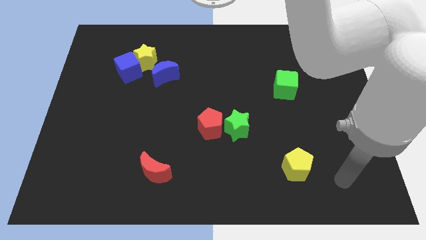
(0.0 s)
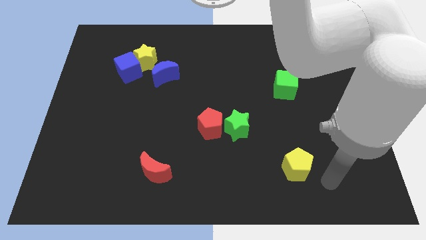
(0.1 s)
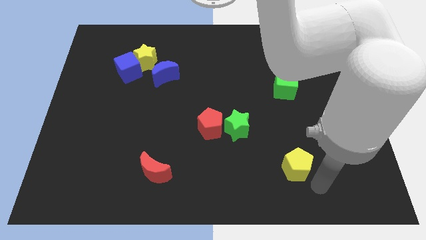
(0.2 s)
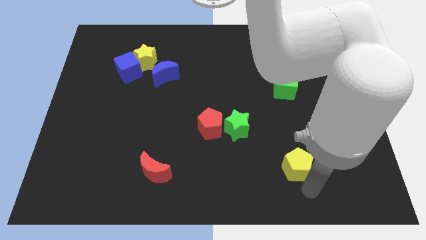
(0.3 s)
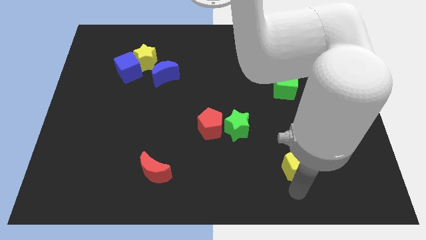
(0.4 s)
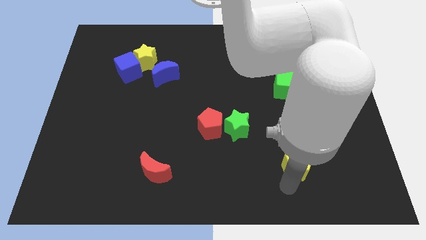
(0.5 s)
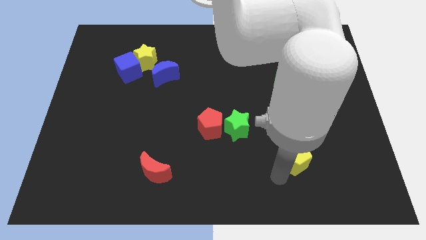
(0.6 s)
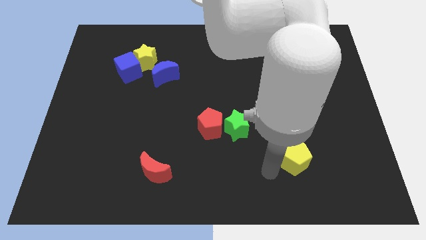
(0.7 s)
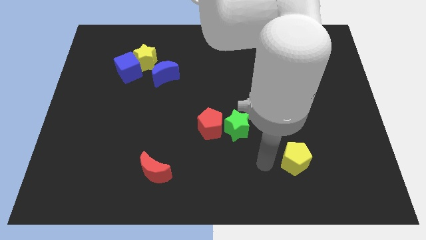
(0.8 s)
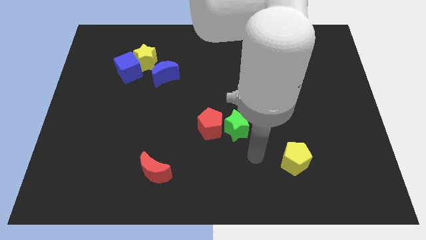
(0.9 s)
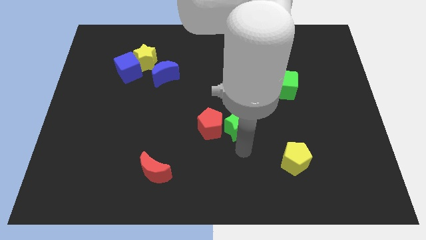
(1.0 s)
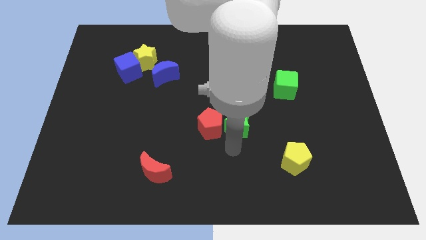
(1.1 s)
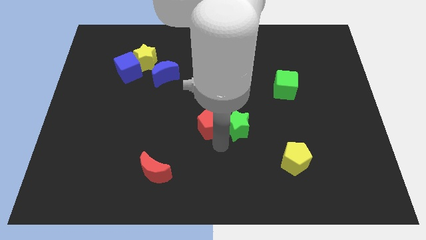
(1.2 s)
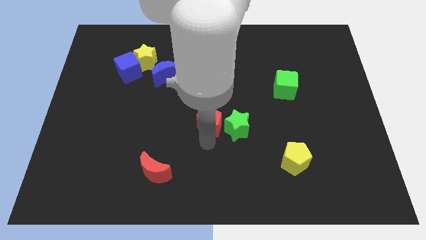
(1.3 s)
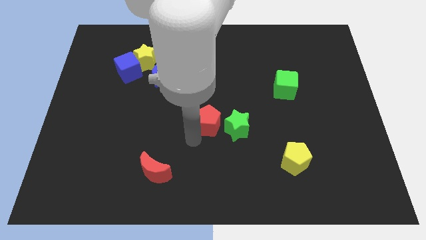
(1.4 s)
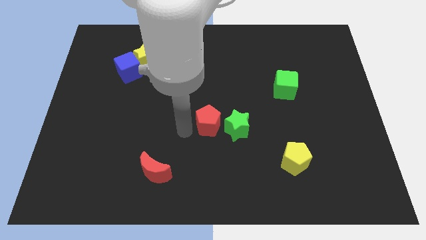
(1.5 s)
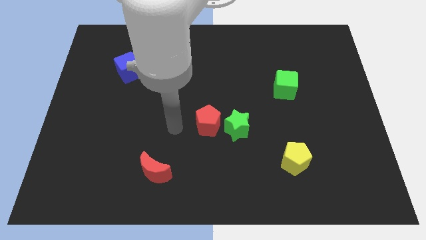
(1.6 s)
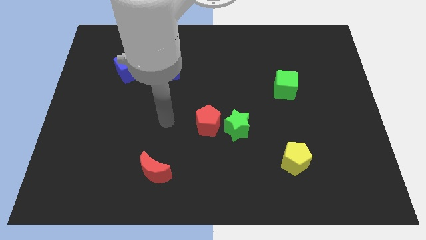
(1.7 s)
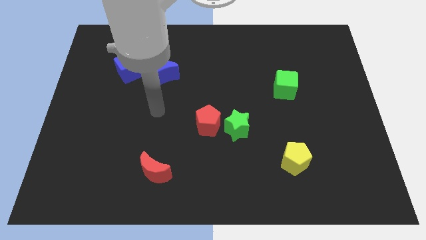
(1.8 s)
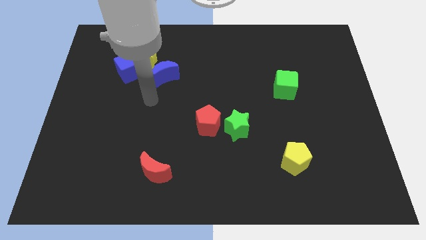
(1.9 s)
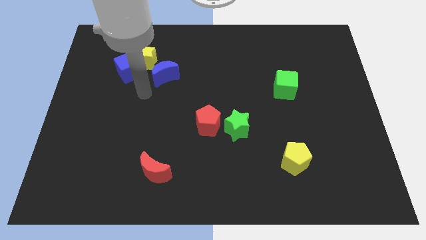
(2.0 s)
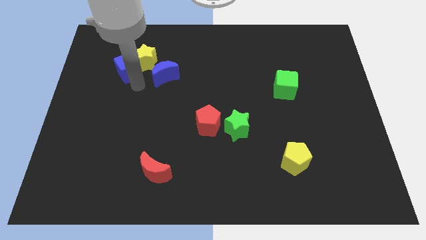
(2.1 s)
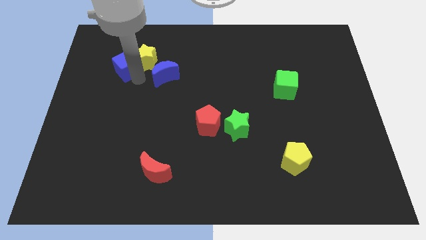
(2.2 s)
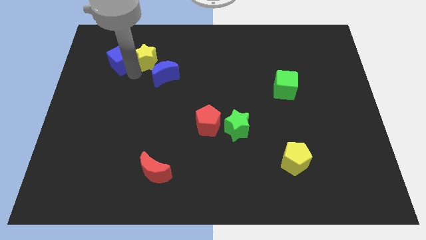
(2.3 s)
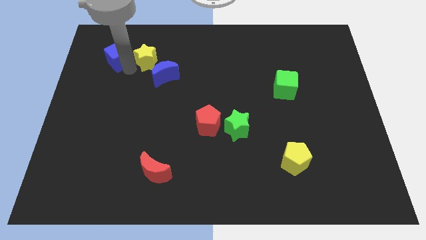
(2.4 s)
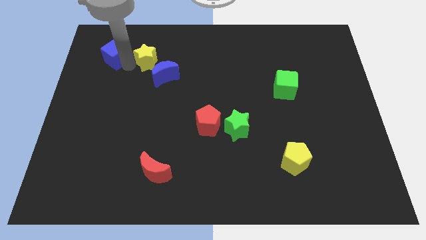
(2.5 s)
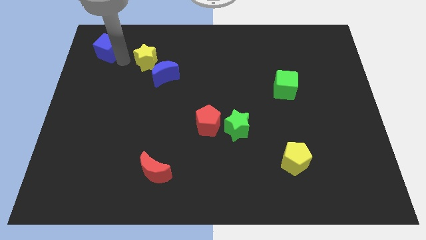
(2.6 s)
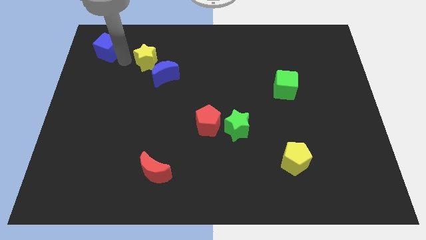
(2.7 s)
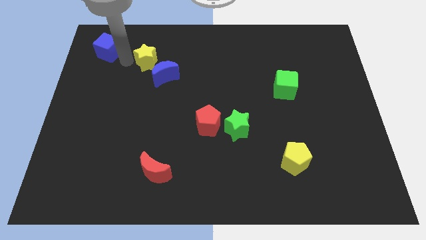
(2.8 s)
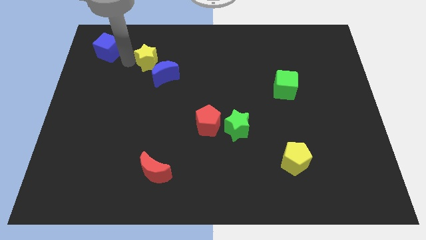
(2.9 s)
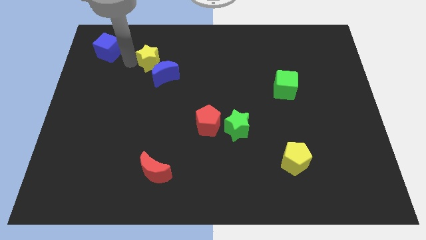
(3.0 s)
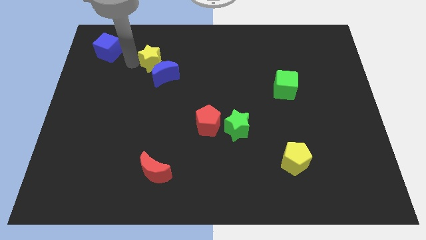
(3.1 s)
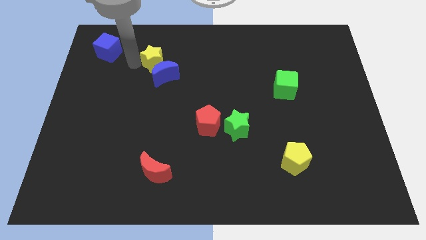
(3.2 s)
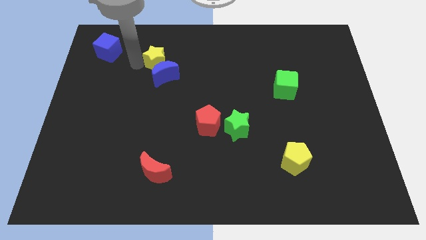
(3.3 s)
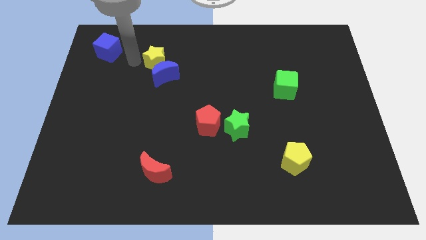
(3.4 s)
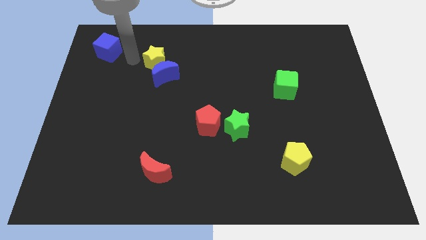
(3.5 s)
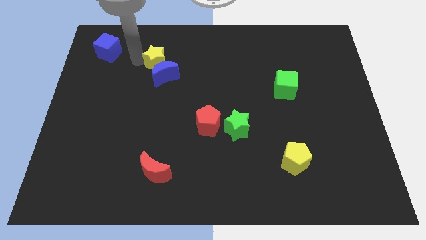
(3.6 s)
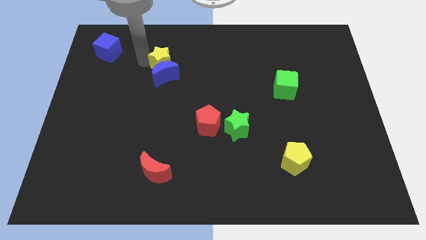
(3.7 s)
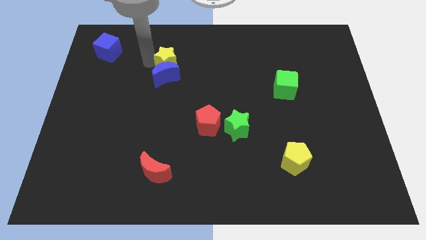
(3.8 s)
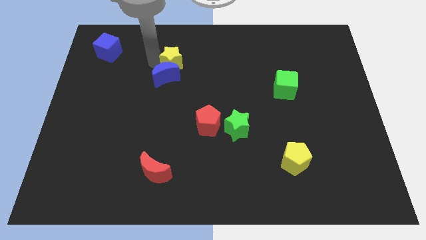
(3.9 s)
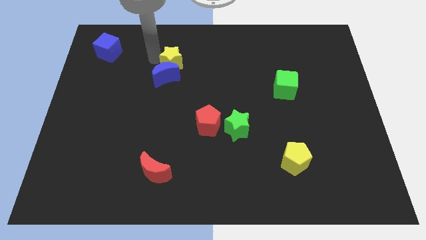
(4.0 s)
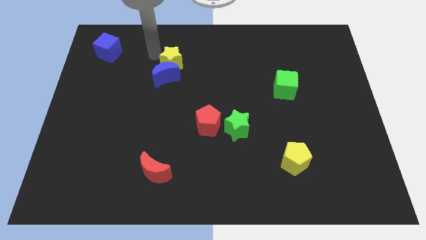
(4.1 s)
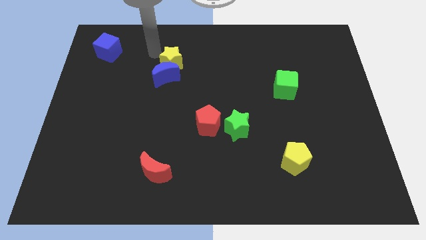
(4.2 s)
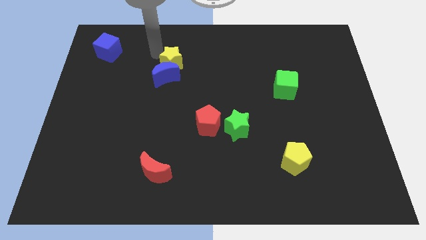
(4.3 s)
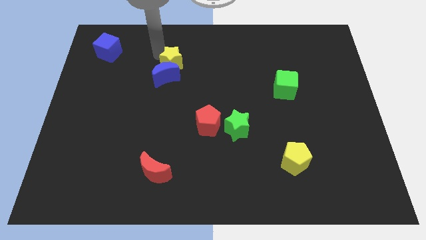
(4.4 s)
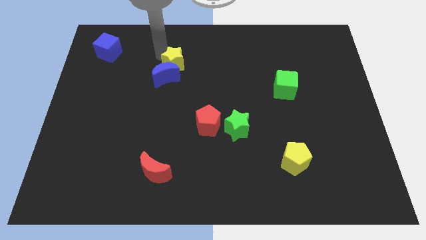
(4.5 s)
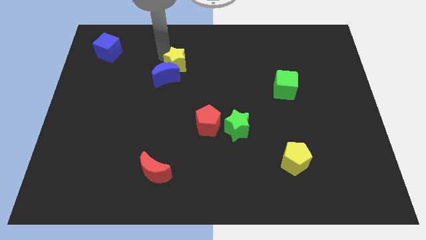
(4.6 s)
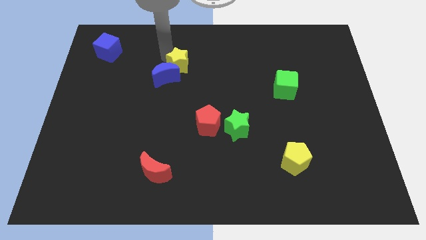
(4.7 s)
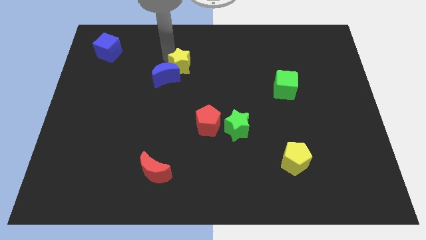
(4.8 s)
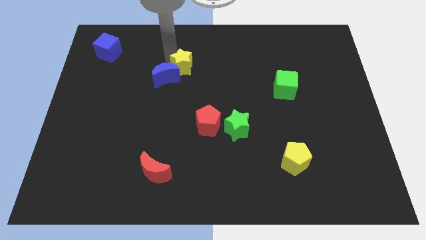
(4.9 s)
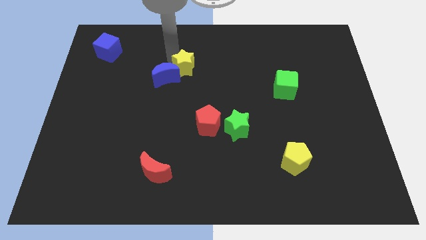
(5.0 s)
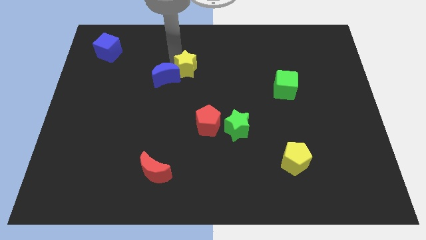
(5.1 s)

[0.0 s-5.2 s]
push the yellow star to the middle

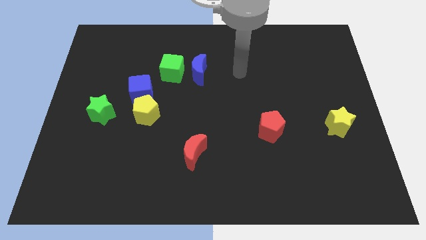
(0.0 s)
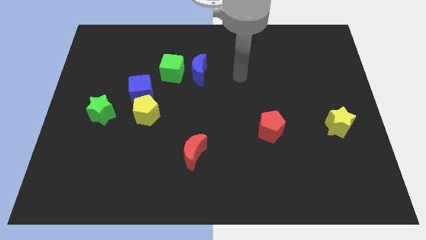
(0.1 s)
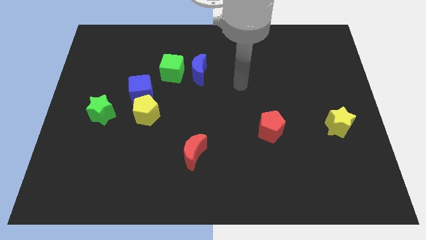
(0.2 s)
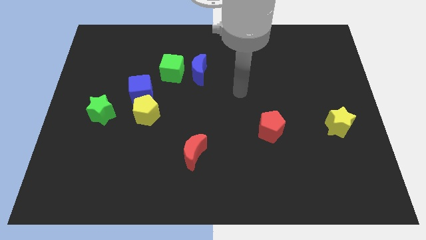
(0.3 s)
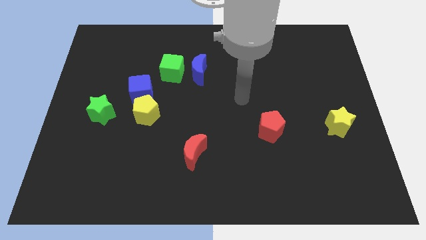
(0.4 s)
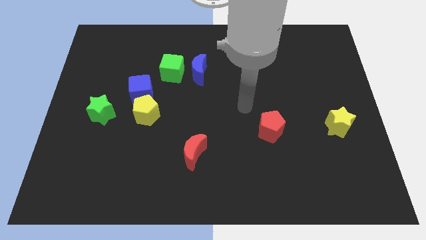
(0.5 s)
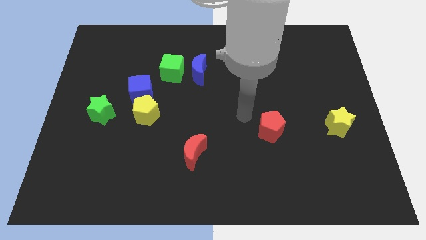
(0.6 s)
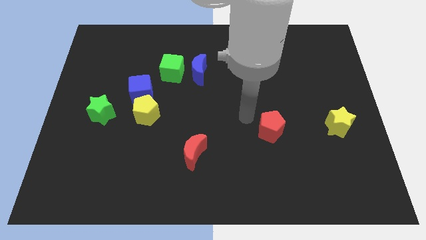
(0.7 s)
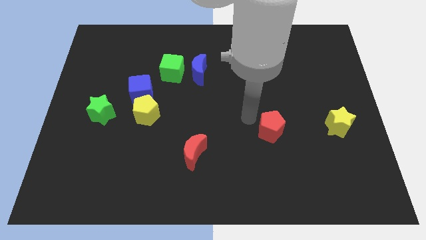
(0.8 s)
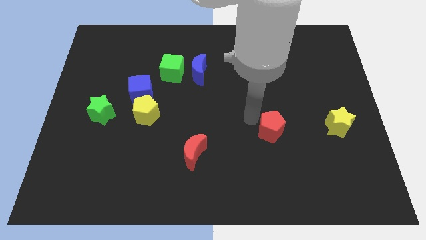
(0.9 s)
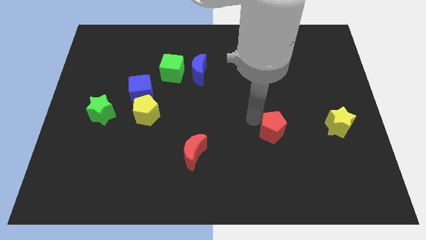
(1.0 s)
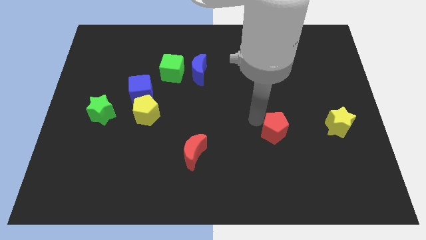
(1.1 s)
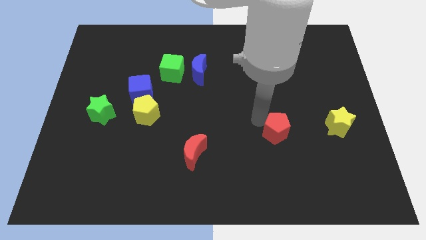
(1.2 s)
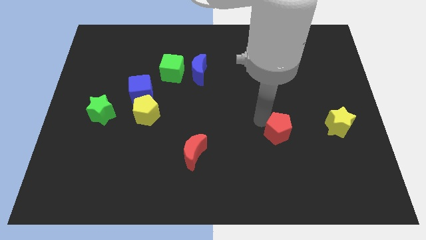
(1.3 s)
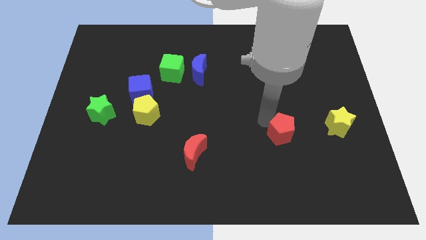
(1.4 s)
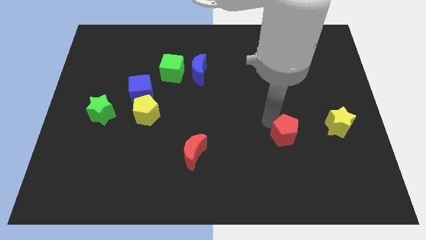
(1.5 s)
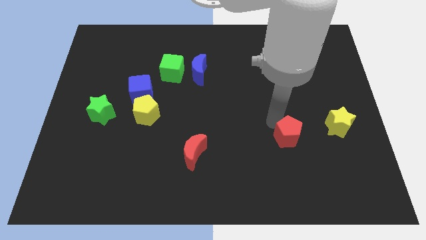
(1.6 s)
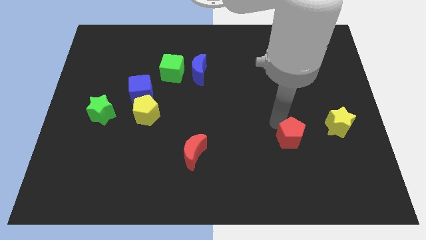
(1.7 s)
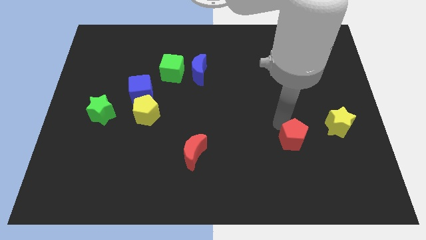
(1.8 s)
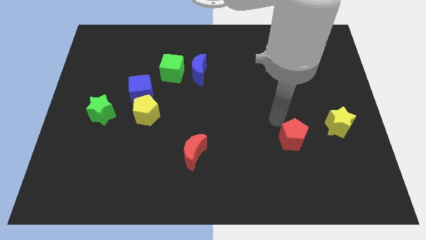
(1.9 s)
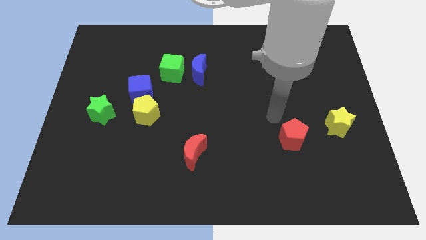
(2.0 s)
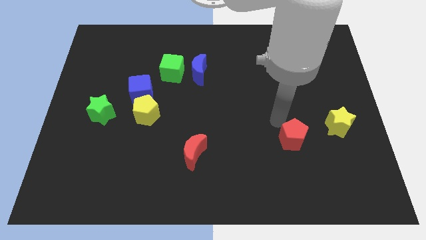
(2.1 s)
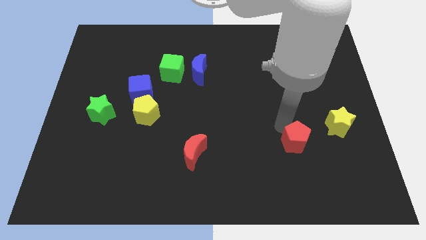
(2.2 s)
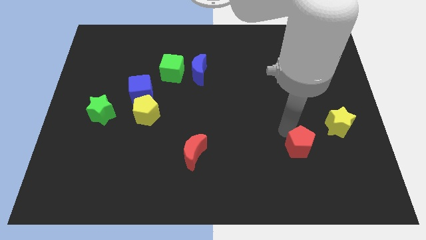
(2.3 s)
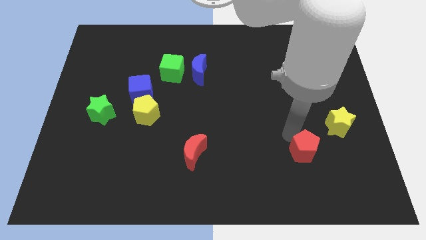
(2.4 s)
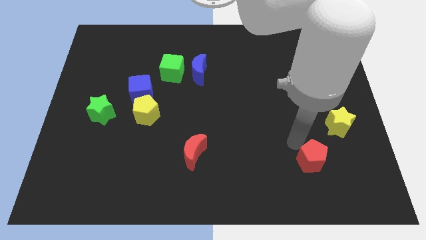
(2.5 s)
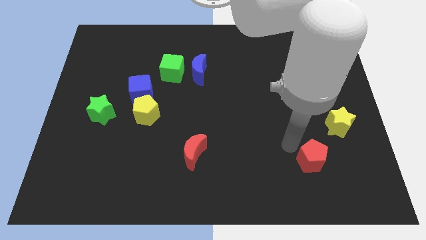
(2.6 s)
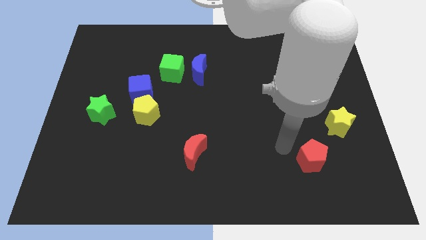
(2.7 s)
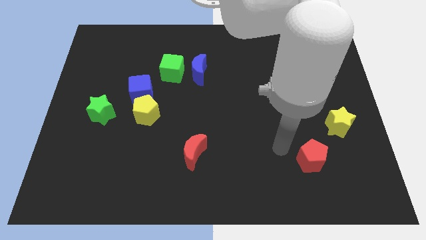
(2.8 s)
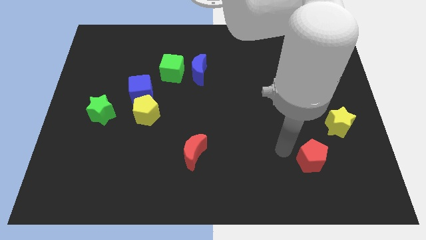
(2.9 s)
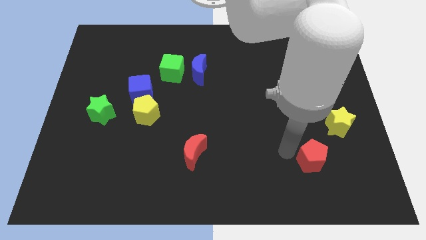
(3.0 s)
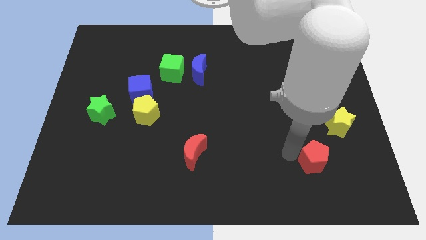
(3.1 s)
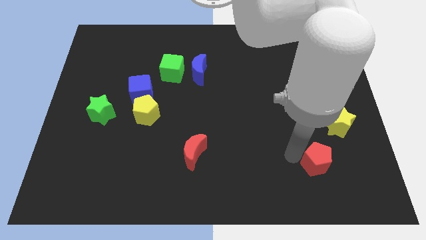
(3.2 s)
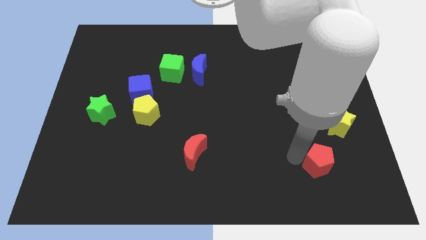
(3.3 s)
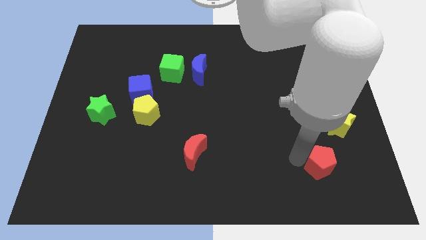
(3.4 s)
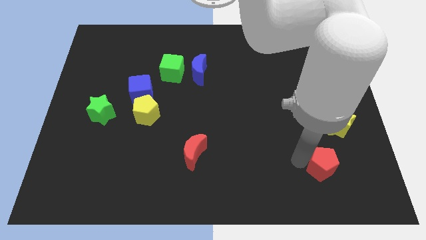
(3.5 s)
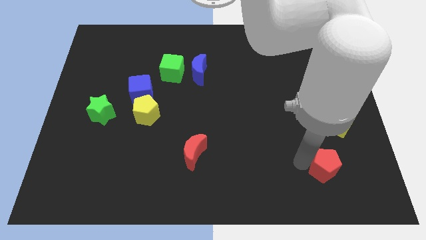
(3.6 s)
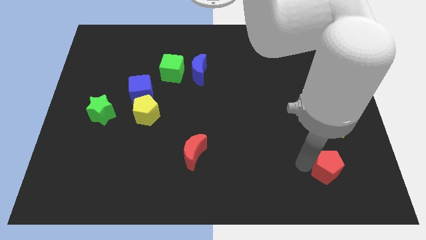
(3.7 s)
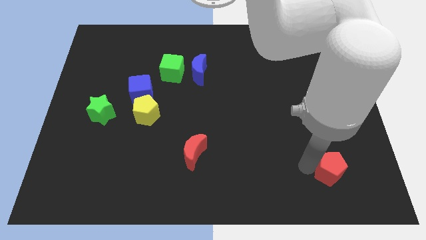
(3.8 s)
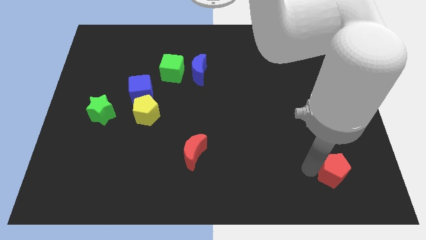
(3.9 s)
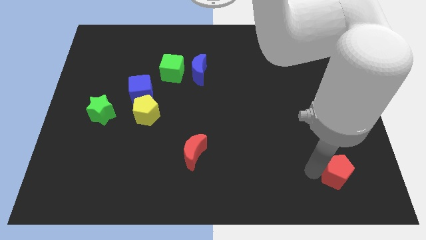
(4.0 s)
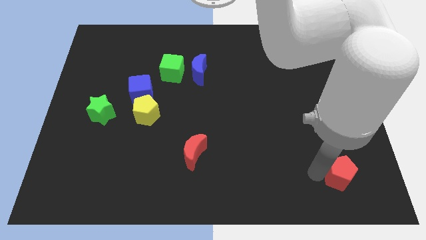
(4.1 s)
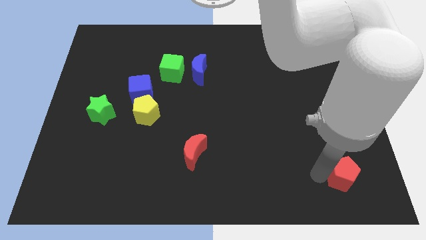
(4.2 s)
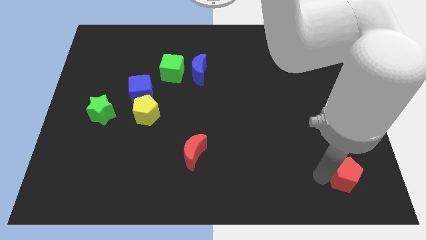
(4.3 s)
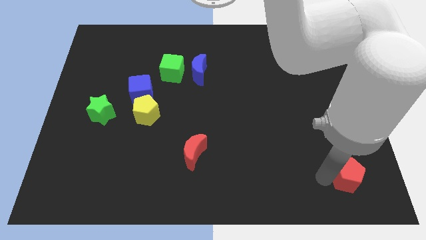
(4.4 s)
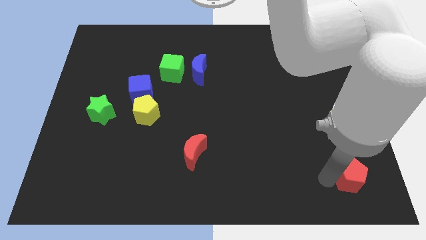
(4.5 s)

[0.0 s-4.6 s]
push the red pentagon to the bottom right
